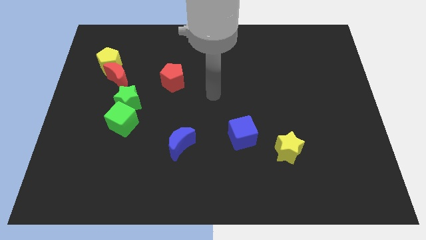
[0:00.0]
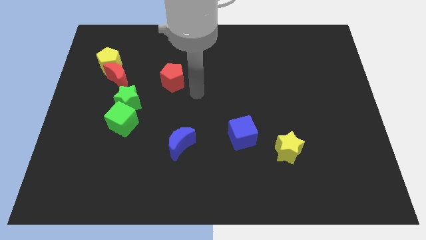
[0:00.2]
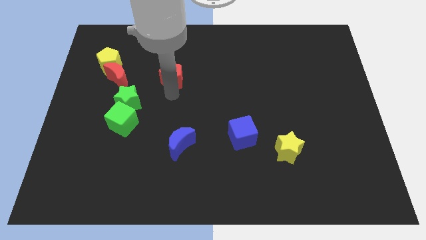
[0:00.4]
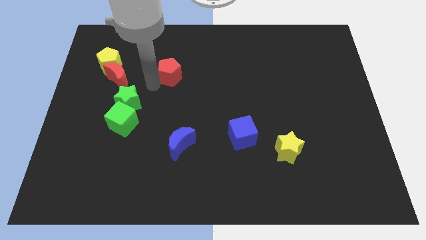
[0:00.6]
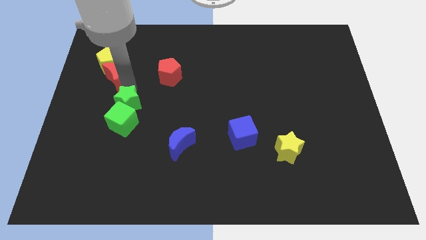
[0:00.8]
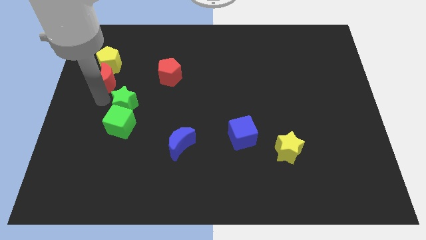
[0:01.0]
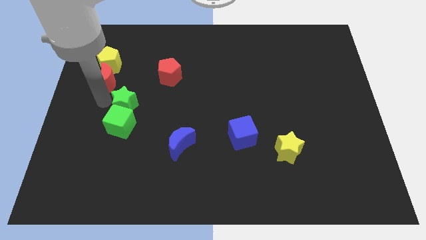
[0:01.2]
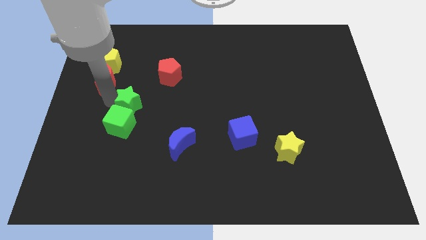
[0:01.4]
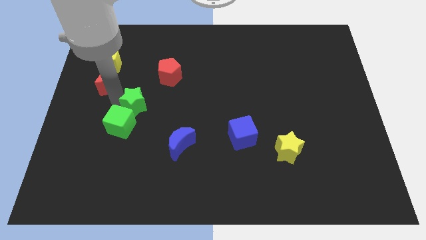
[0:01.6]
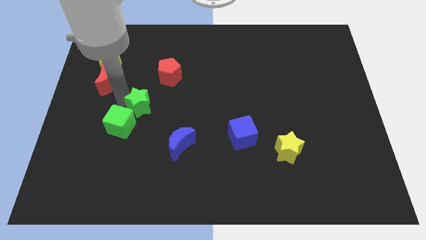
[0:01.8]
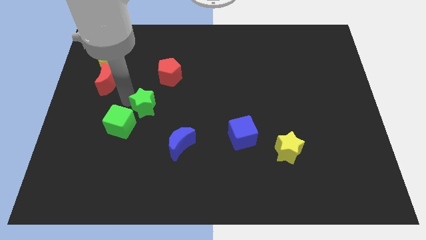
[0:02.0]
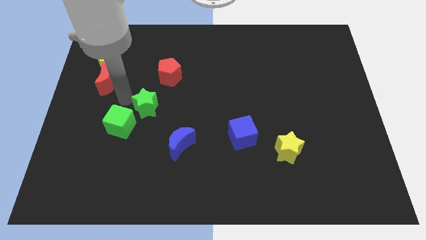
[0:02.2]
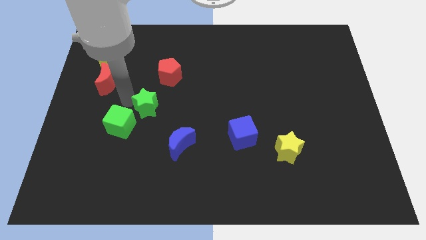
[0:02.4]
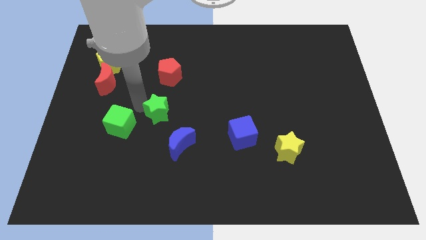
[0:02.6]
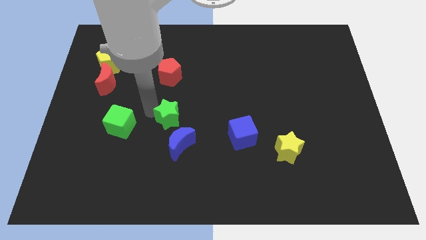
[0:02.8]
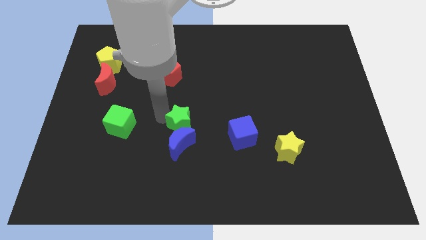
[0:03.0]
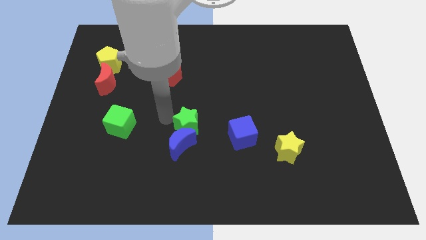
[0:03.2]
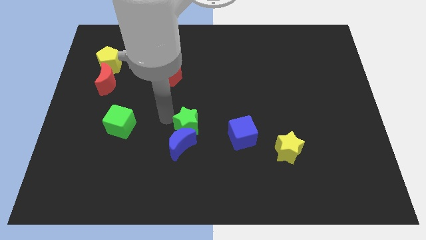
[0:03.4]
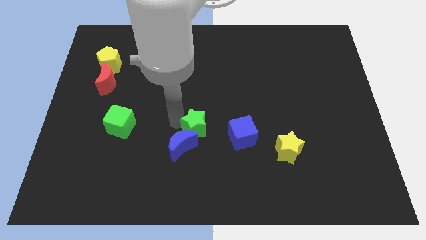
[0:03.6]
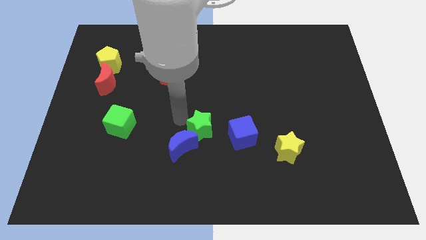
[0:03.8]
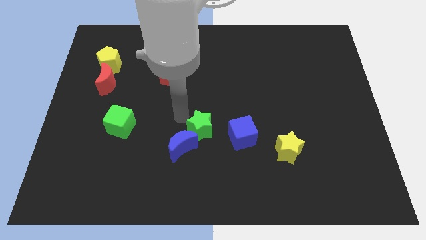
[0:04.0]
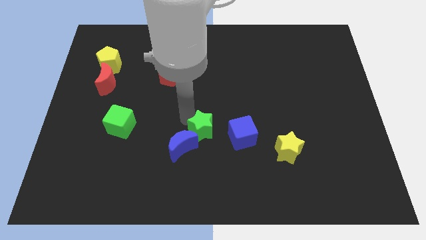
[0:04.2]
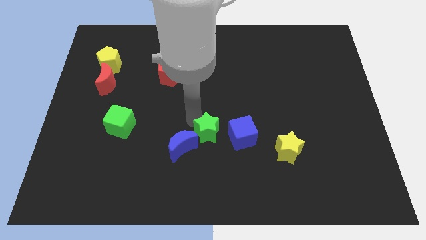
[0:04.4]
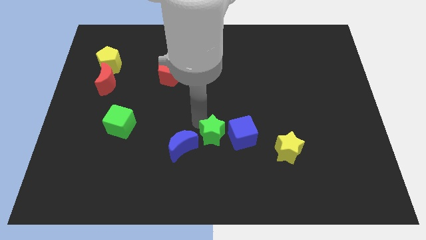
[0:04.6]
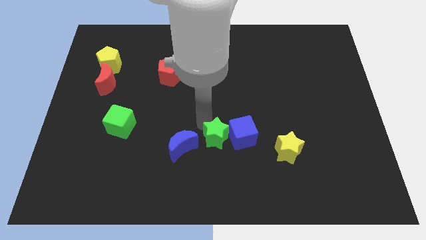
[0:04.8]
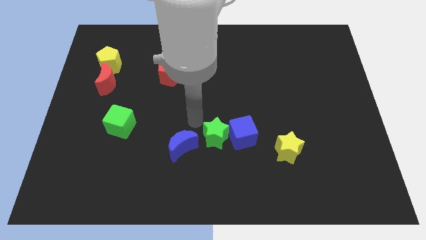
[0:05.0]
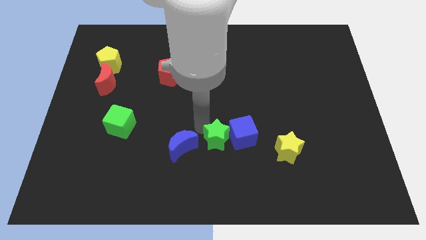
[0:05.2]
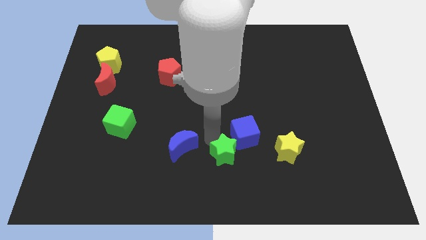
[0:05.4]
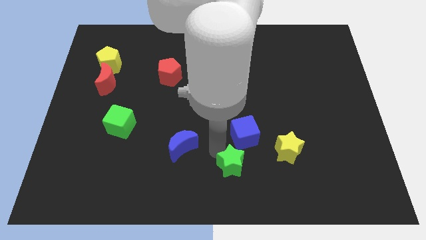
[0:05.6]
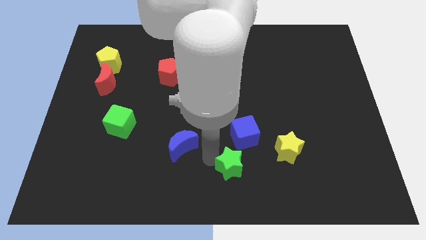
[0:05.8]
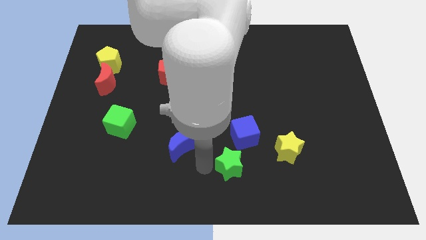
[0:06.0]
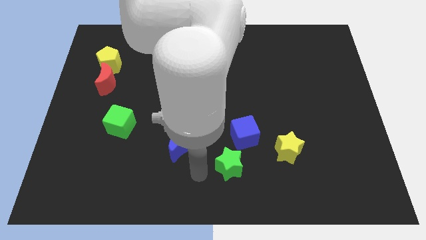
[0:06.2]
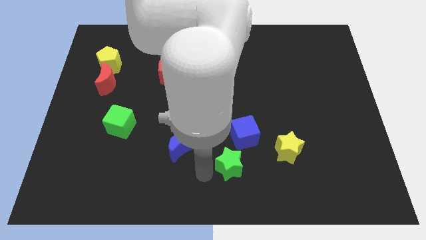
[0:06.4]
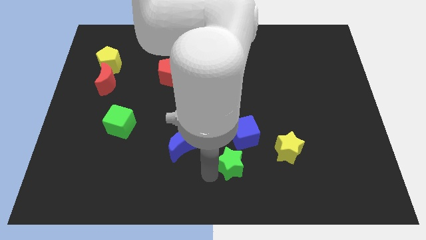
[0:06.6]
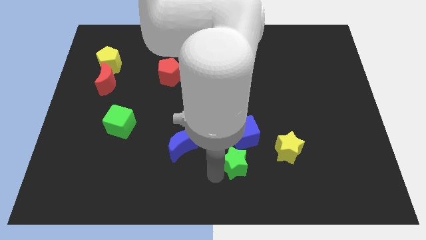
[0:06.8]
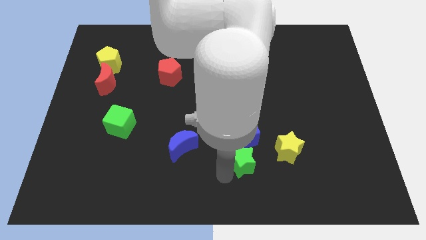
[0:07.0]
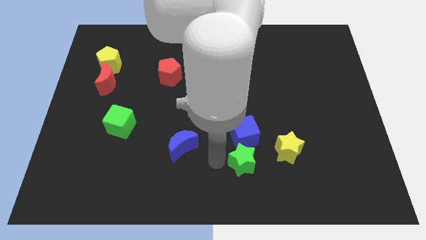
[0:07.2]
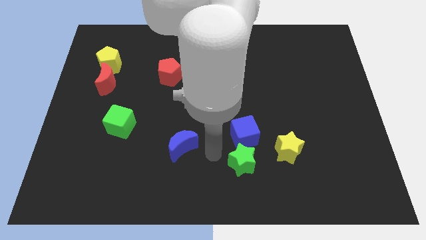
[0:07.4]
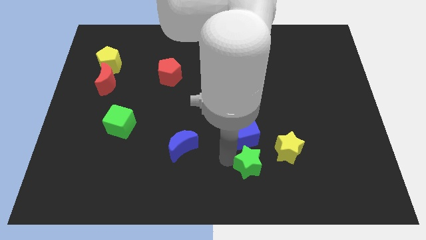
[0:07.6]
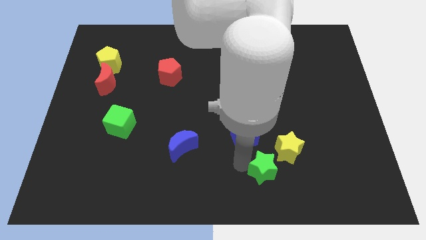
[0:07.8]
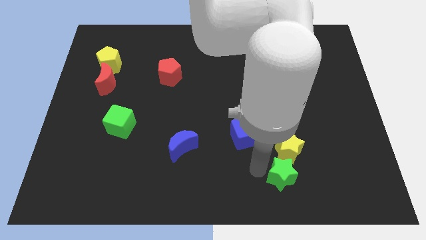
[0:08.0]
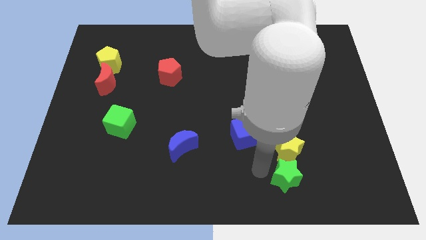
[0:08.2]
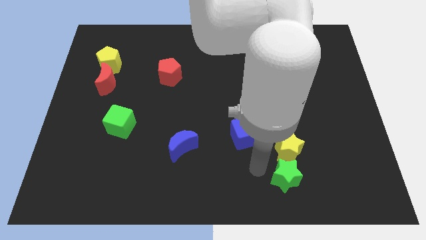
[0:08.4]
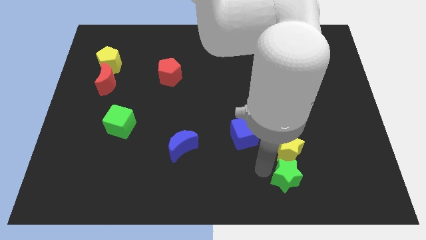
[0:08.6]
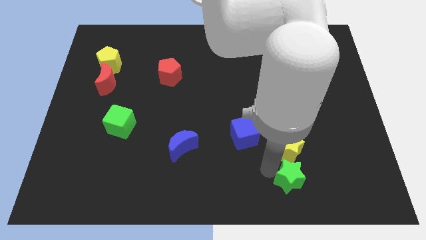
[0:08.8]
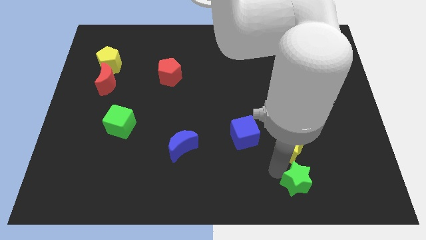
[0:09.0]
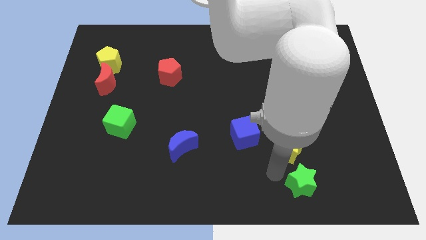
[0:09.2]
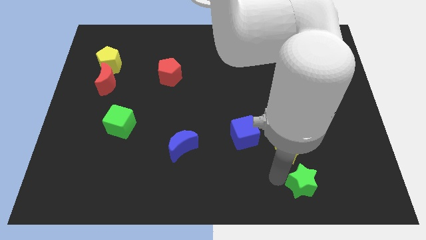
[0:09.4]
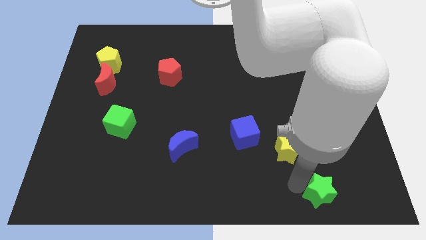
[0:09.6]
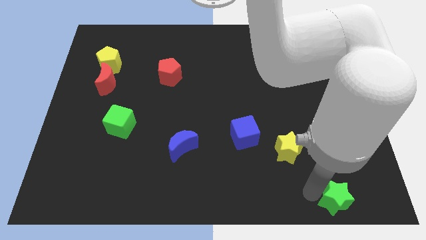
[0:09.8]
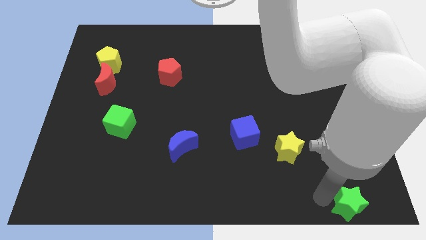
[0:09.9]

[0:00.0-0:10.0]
push the green star to the bottom right corner

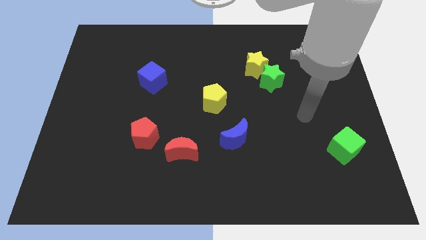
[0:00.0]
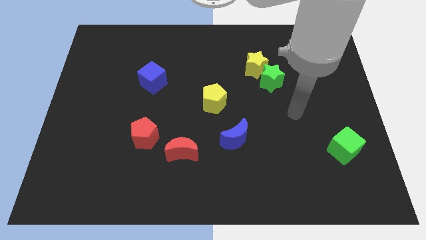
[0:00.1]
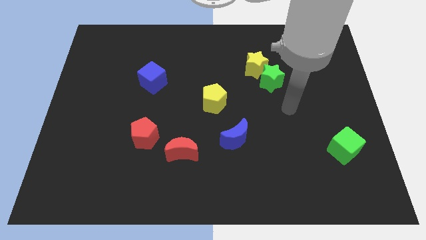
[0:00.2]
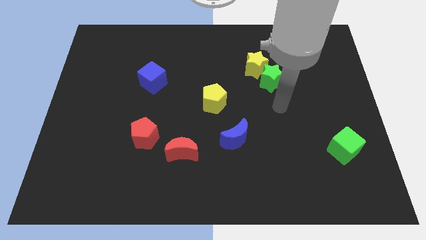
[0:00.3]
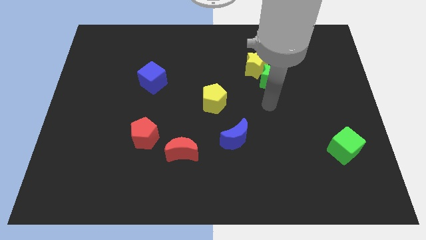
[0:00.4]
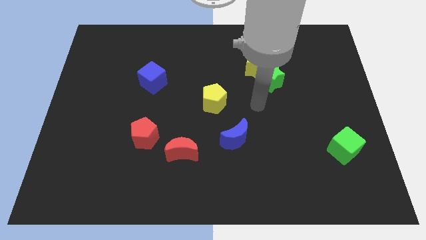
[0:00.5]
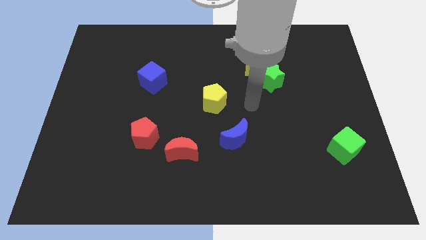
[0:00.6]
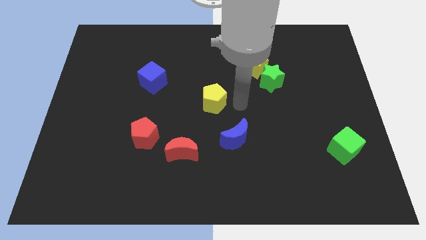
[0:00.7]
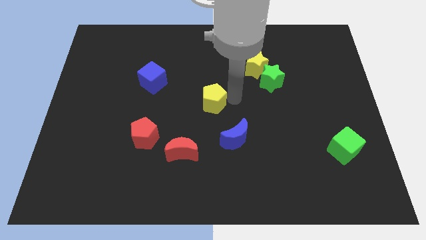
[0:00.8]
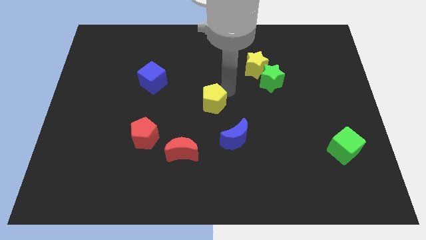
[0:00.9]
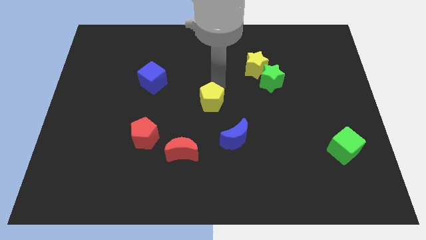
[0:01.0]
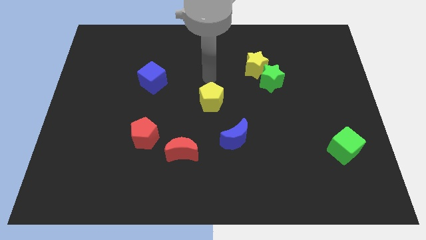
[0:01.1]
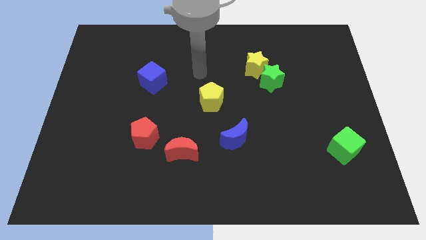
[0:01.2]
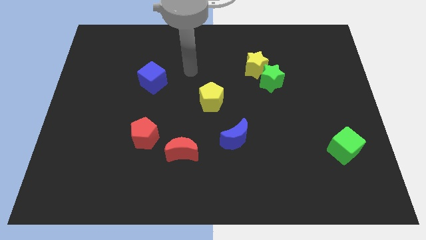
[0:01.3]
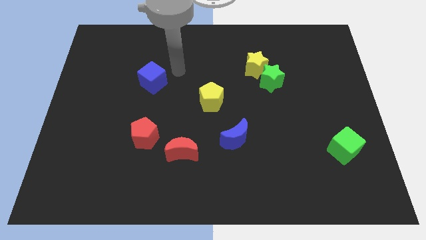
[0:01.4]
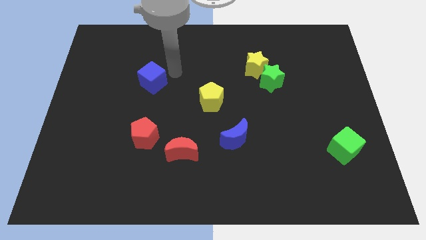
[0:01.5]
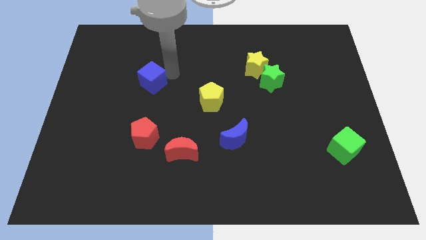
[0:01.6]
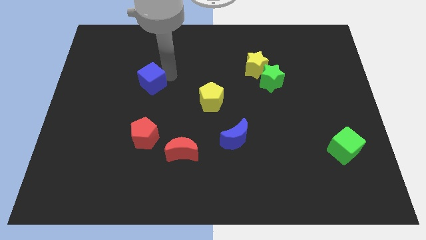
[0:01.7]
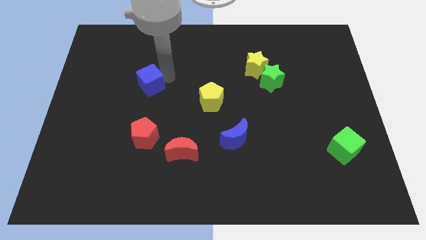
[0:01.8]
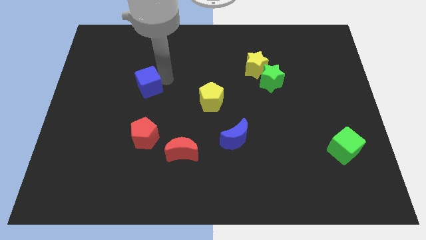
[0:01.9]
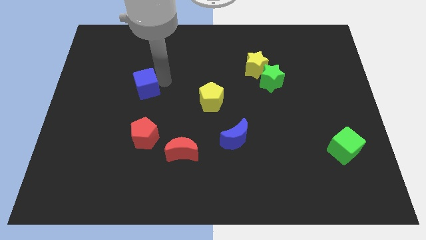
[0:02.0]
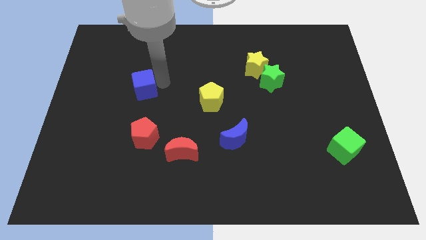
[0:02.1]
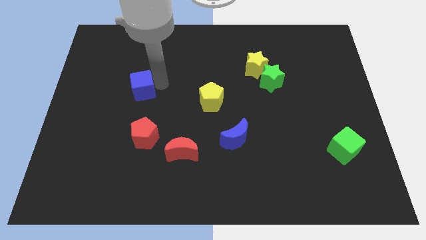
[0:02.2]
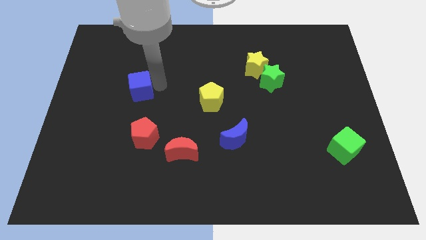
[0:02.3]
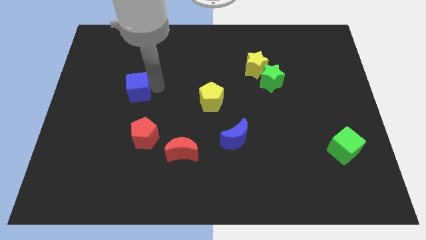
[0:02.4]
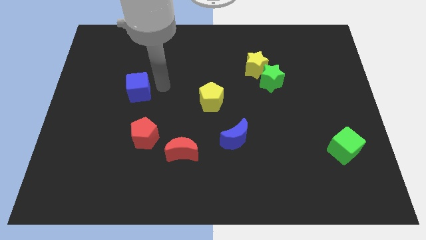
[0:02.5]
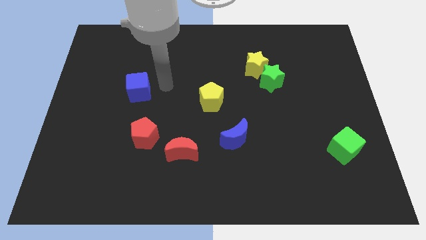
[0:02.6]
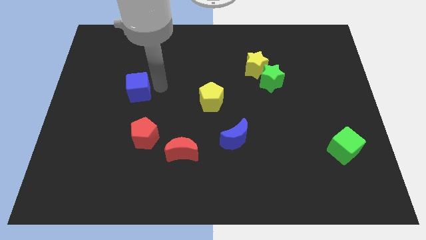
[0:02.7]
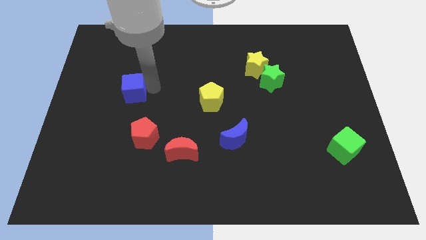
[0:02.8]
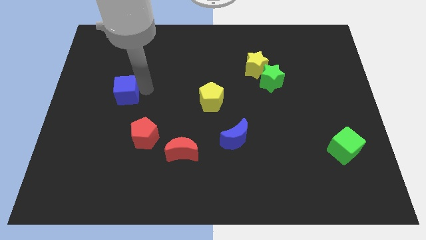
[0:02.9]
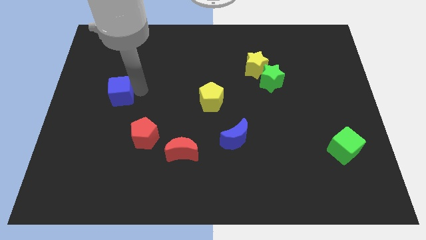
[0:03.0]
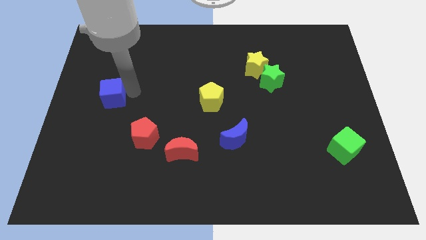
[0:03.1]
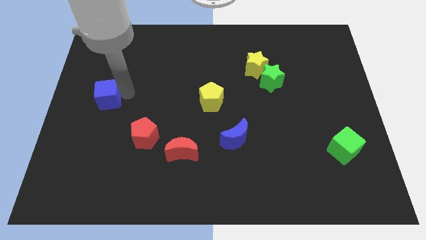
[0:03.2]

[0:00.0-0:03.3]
slide the blue cube to the center left
